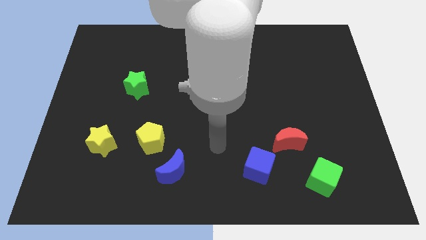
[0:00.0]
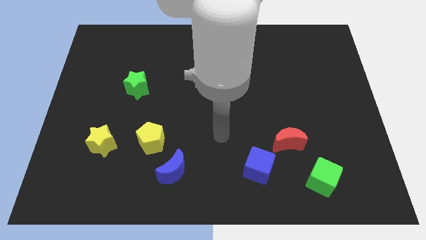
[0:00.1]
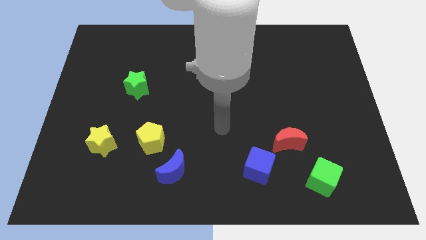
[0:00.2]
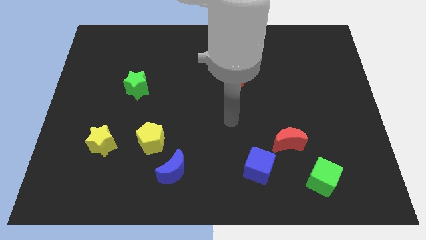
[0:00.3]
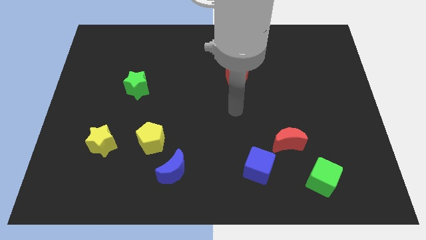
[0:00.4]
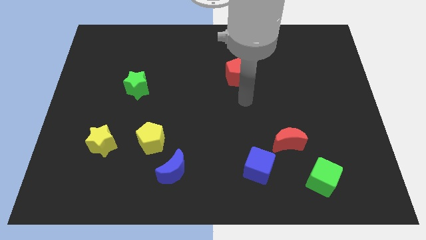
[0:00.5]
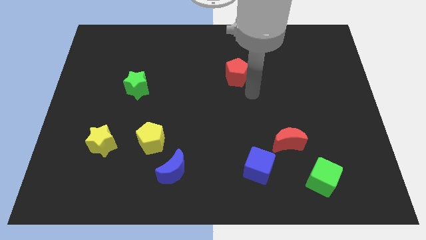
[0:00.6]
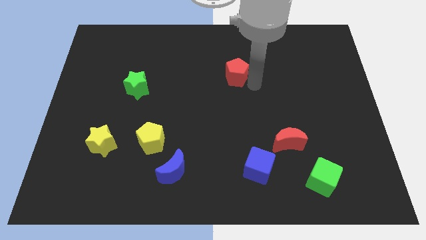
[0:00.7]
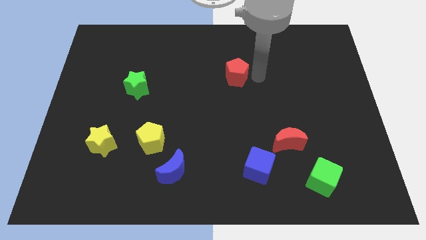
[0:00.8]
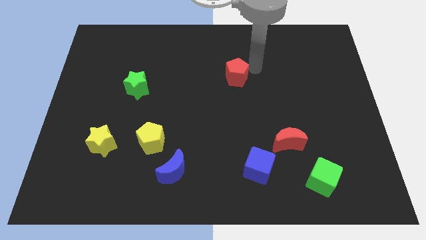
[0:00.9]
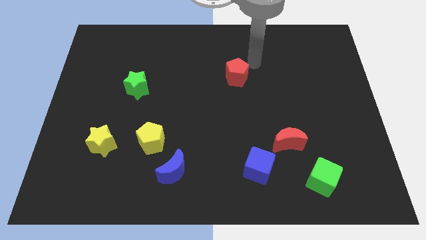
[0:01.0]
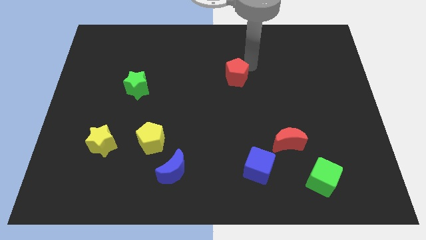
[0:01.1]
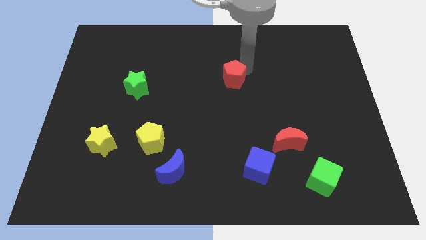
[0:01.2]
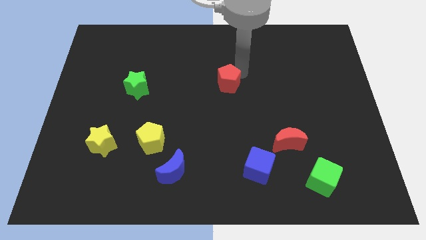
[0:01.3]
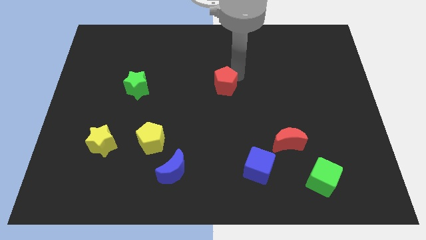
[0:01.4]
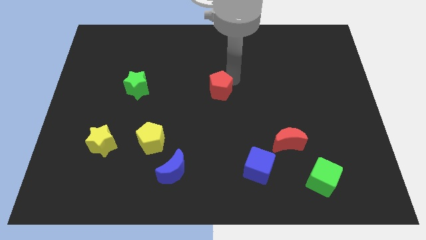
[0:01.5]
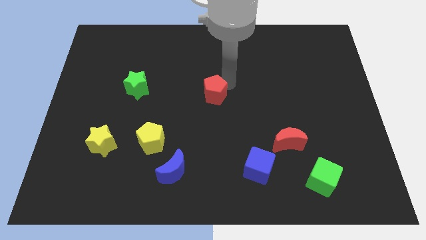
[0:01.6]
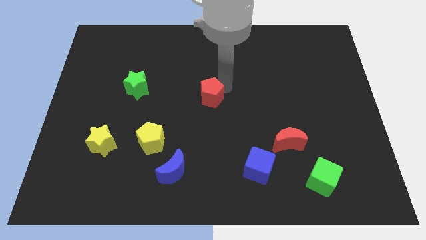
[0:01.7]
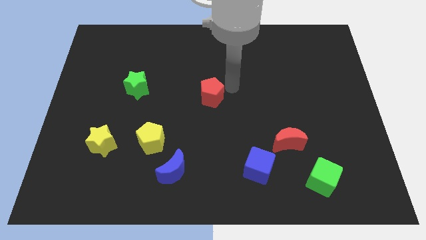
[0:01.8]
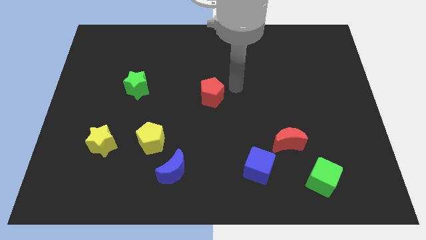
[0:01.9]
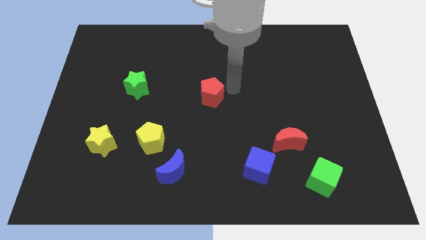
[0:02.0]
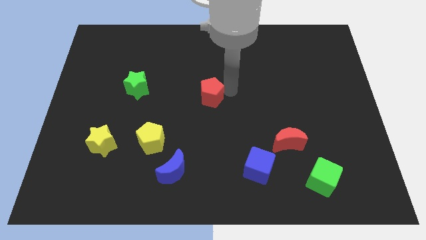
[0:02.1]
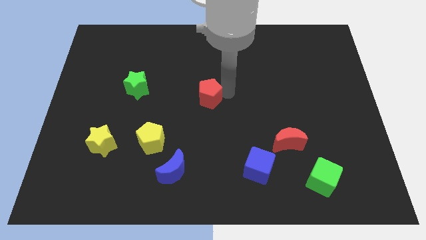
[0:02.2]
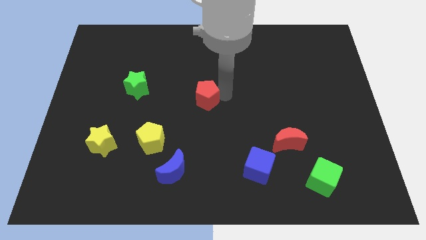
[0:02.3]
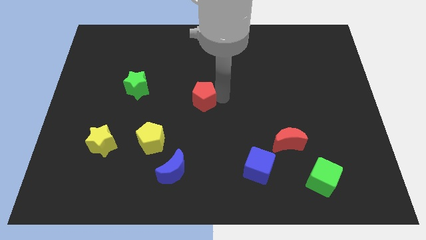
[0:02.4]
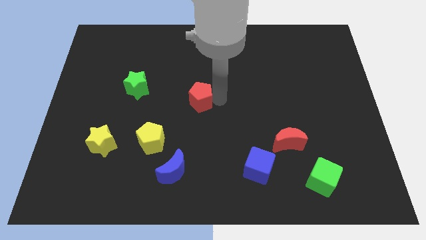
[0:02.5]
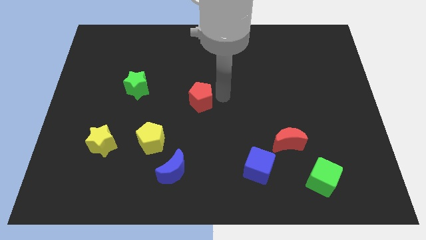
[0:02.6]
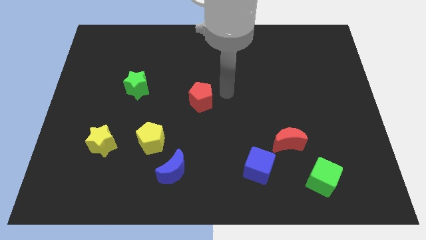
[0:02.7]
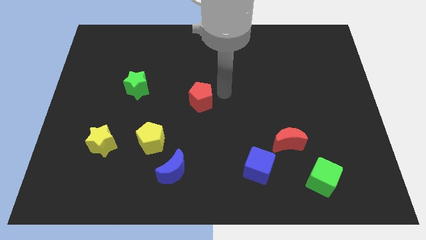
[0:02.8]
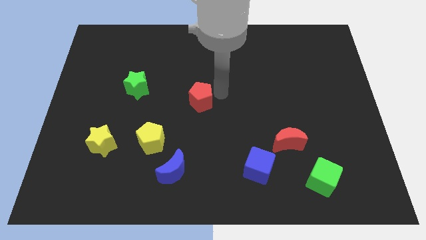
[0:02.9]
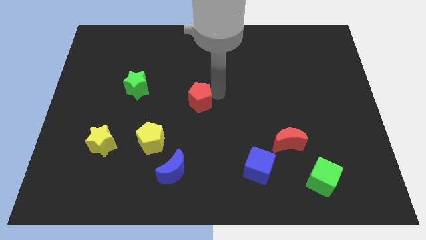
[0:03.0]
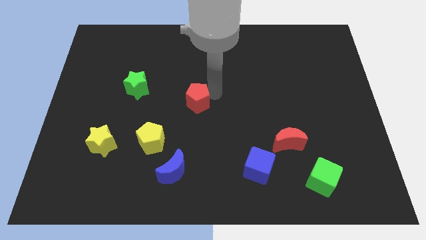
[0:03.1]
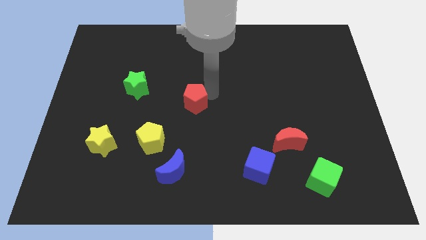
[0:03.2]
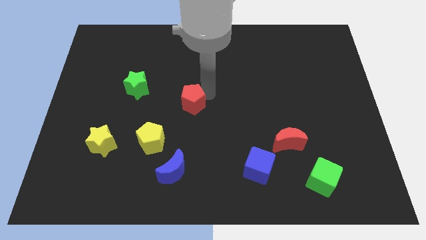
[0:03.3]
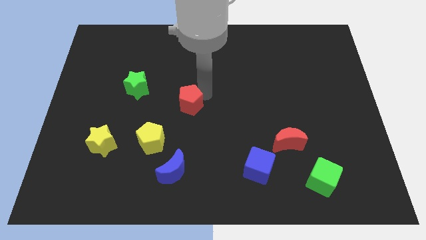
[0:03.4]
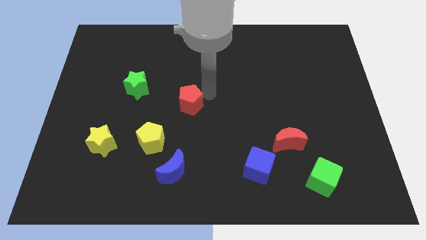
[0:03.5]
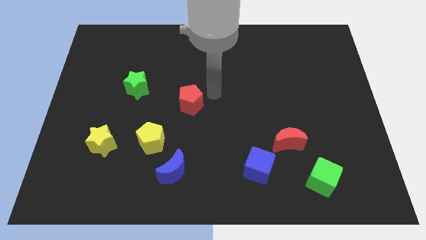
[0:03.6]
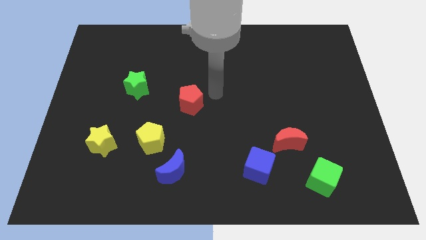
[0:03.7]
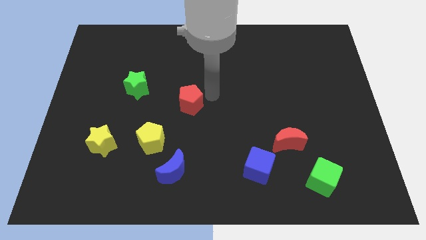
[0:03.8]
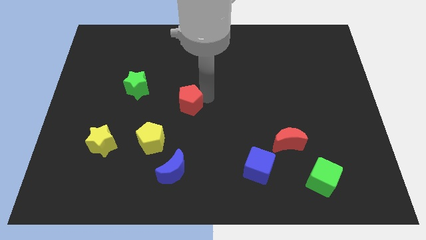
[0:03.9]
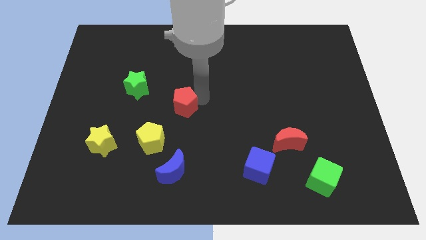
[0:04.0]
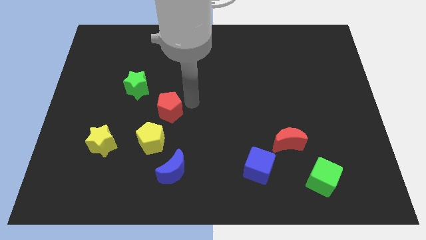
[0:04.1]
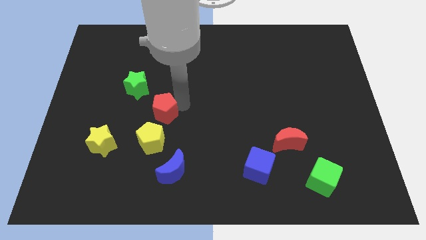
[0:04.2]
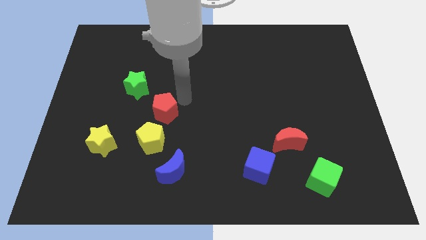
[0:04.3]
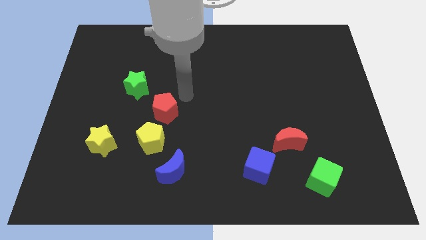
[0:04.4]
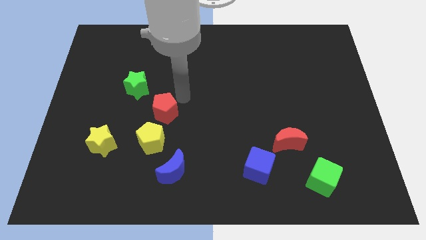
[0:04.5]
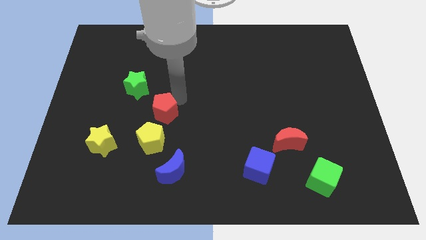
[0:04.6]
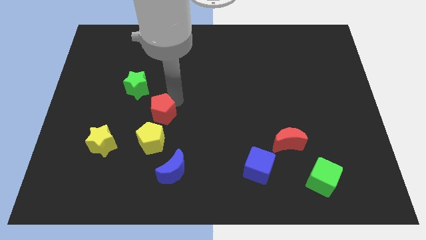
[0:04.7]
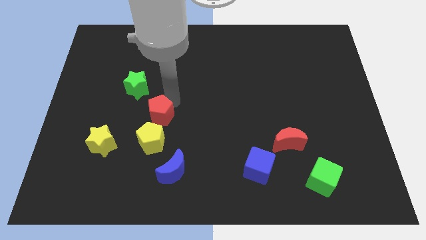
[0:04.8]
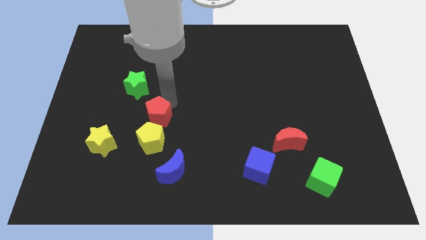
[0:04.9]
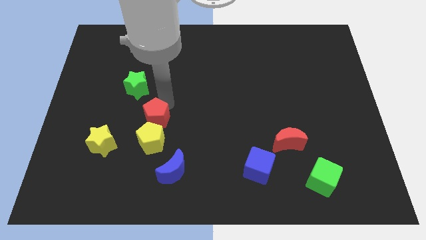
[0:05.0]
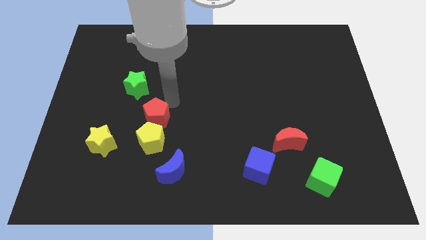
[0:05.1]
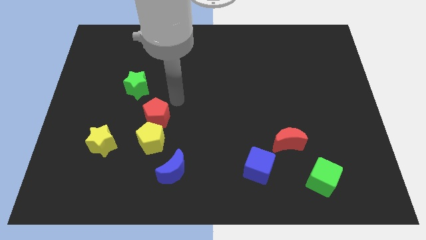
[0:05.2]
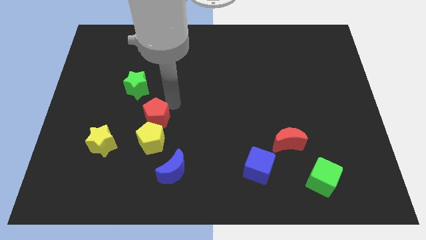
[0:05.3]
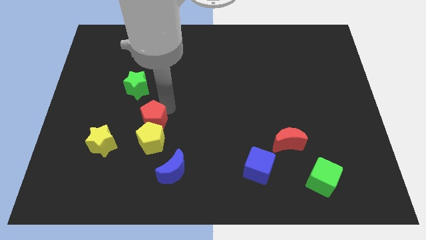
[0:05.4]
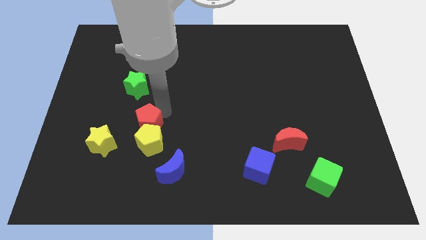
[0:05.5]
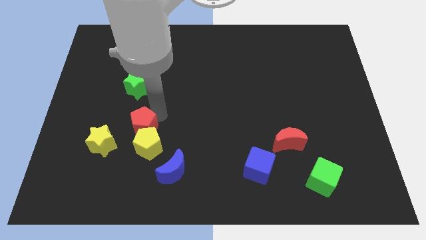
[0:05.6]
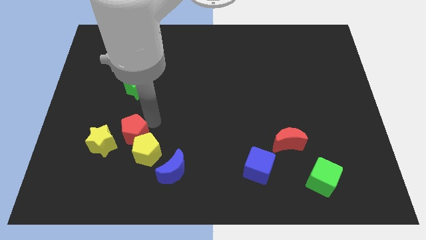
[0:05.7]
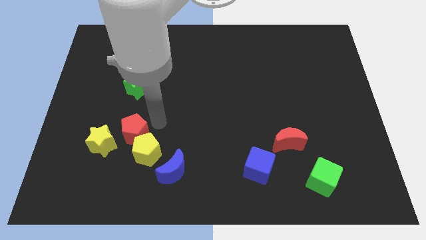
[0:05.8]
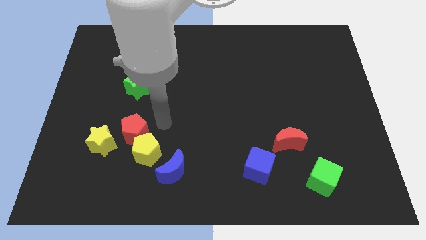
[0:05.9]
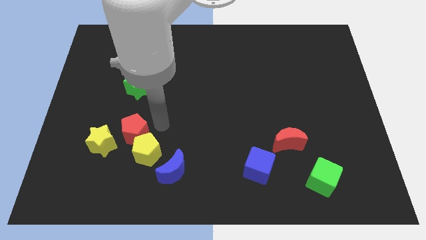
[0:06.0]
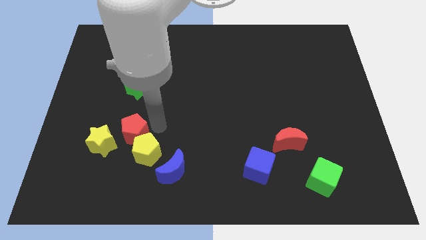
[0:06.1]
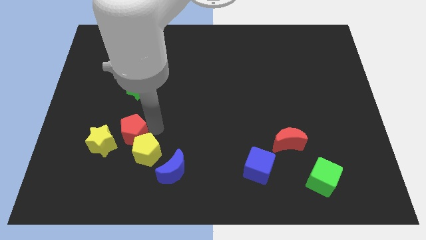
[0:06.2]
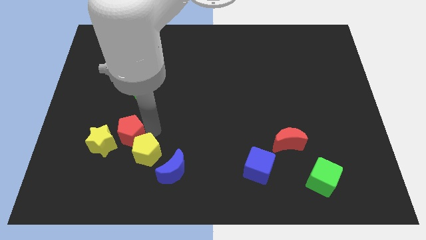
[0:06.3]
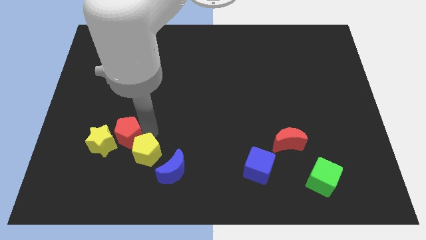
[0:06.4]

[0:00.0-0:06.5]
push the red pentagon to the yellow star
